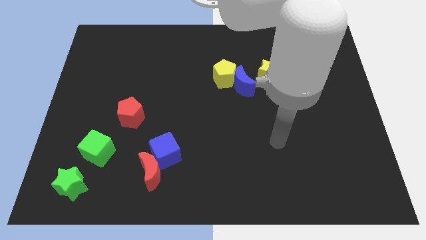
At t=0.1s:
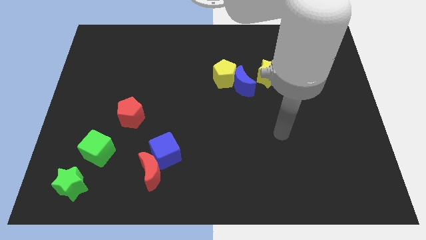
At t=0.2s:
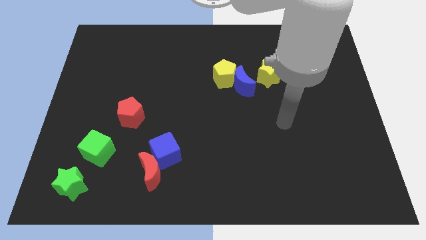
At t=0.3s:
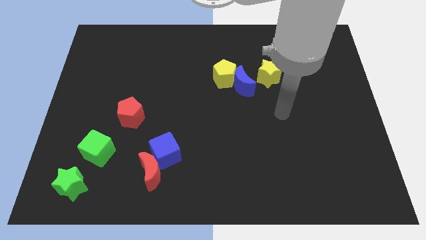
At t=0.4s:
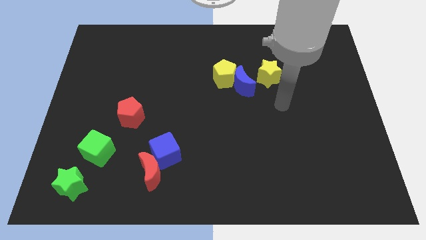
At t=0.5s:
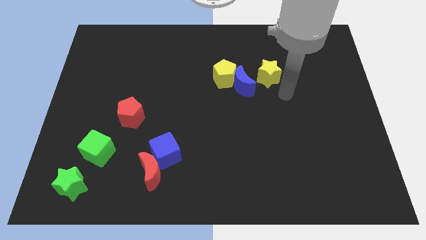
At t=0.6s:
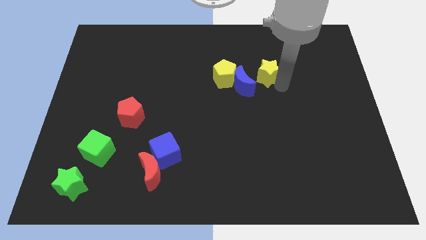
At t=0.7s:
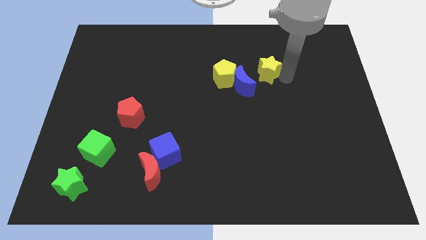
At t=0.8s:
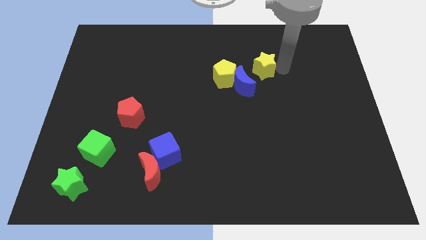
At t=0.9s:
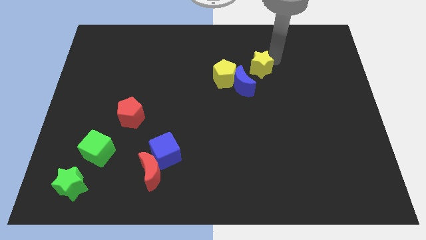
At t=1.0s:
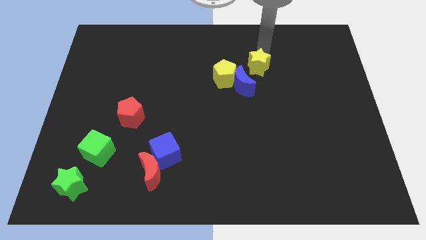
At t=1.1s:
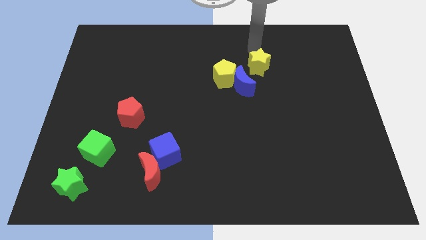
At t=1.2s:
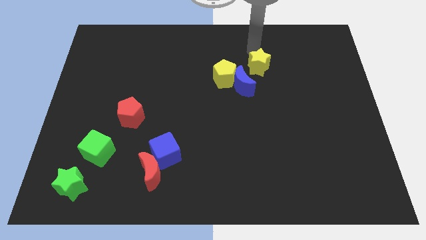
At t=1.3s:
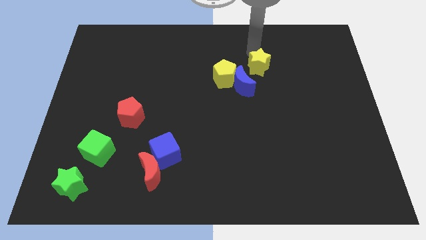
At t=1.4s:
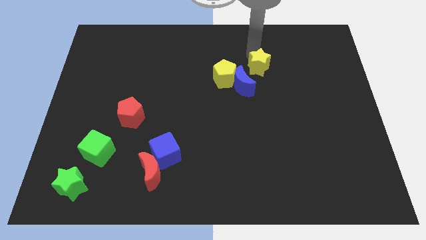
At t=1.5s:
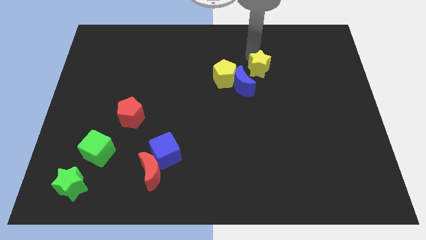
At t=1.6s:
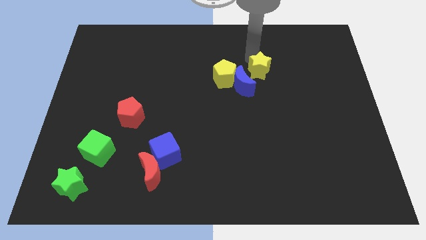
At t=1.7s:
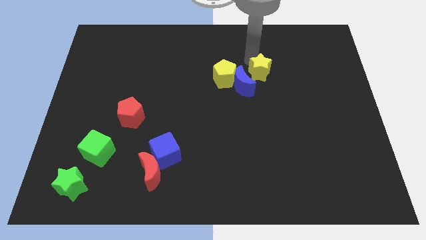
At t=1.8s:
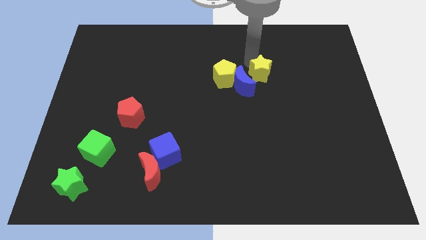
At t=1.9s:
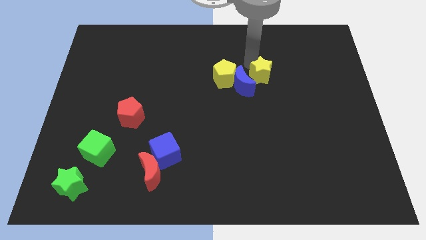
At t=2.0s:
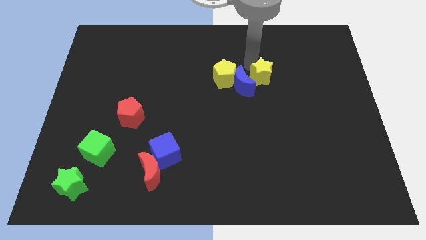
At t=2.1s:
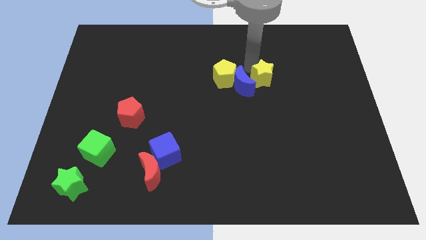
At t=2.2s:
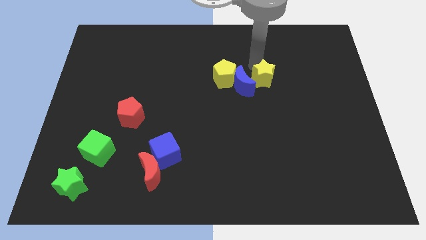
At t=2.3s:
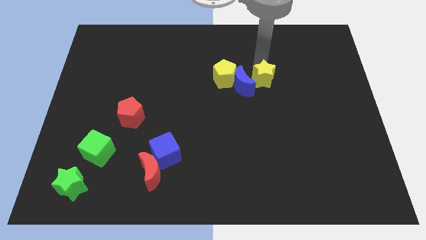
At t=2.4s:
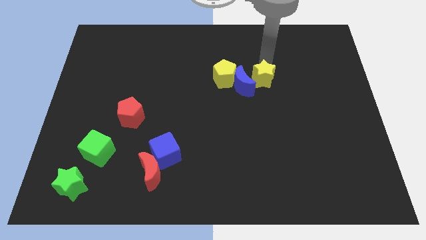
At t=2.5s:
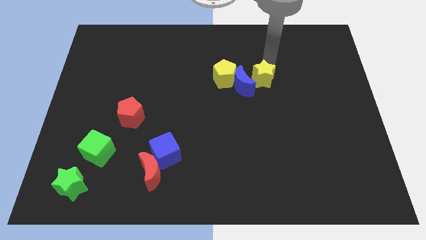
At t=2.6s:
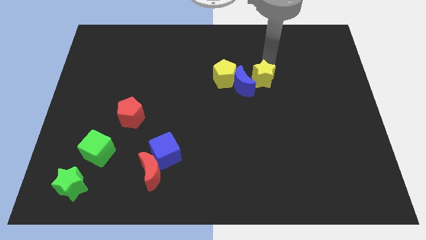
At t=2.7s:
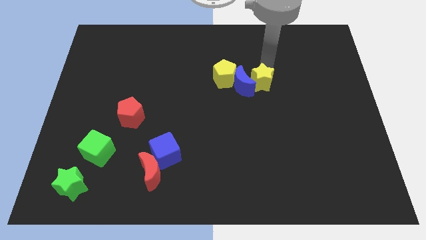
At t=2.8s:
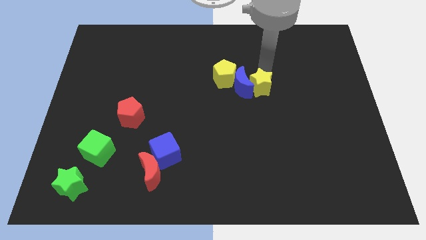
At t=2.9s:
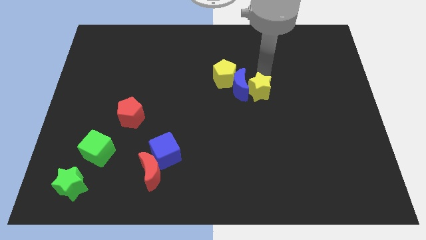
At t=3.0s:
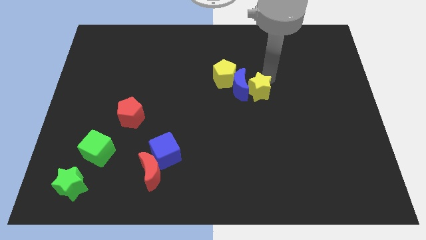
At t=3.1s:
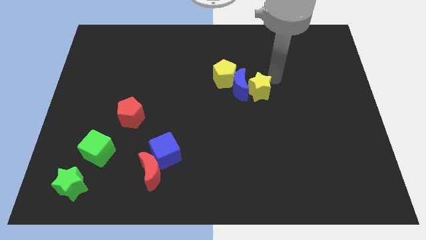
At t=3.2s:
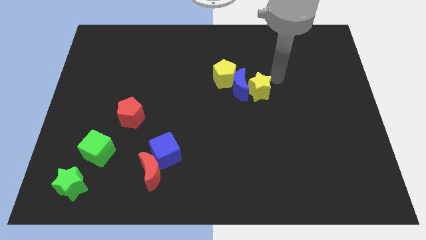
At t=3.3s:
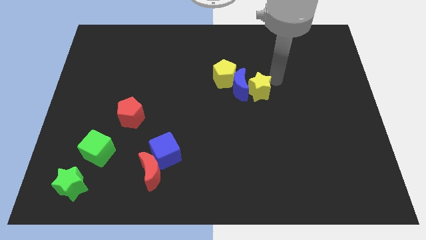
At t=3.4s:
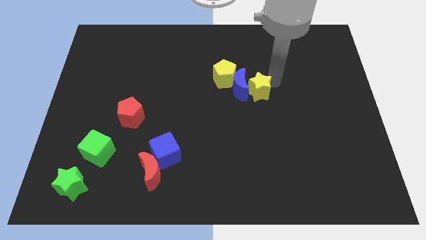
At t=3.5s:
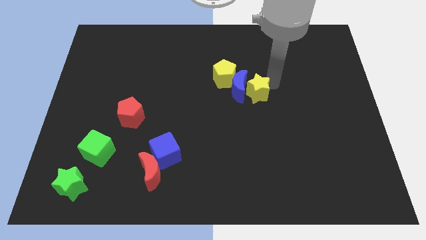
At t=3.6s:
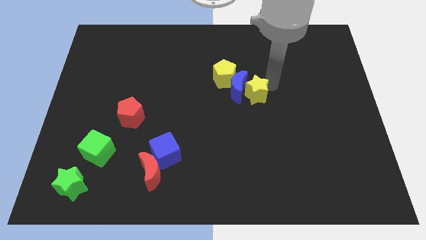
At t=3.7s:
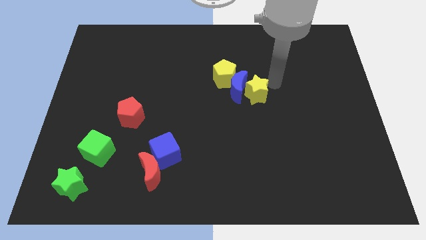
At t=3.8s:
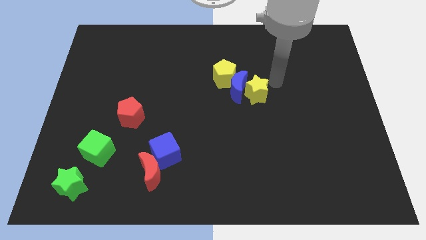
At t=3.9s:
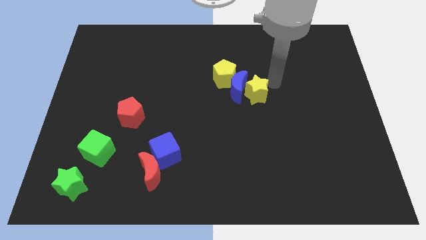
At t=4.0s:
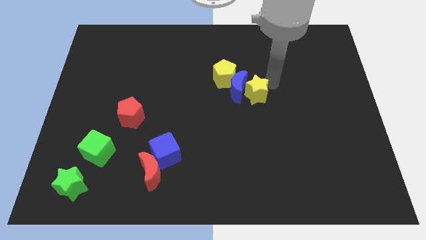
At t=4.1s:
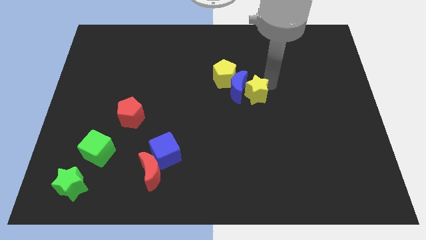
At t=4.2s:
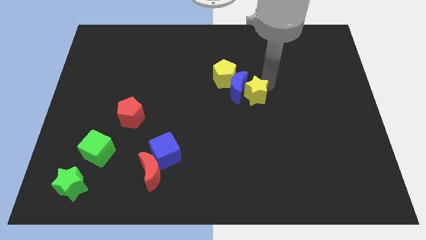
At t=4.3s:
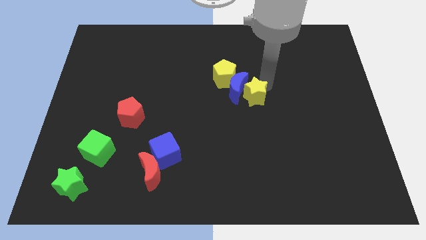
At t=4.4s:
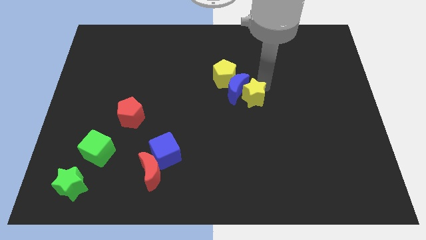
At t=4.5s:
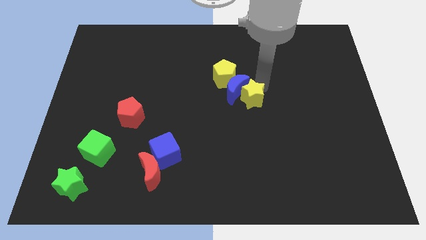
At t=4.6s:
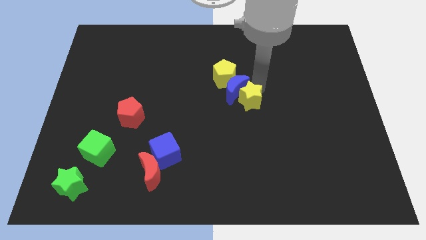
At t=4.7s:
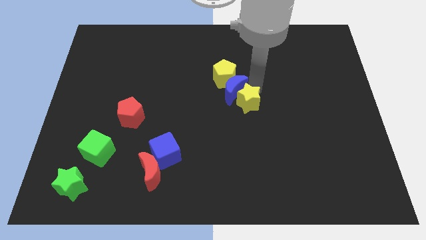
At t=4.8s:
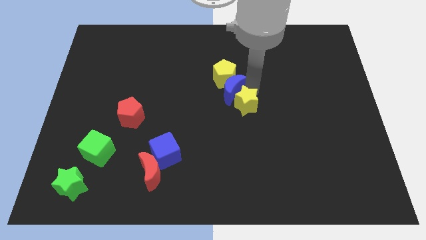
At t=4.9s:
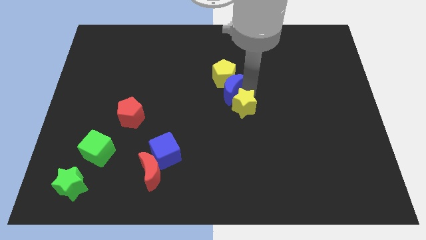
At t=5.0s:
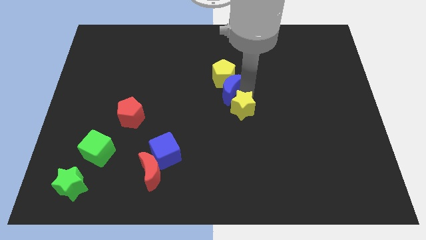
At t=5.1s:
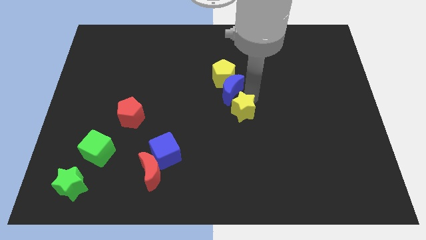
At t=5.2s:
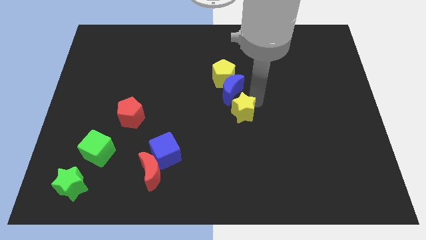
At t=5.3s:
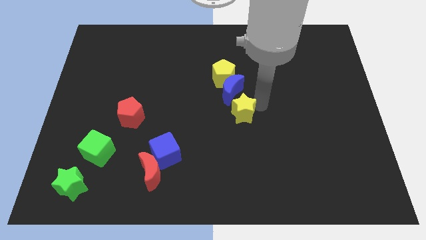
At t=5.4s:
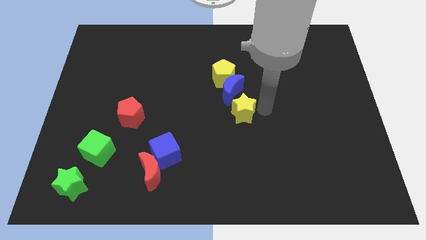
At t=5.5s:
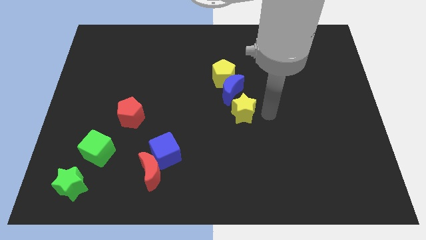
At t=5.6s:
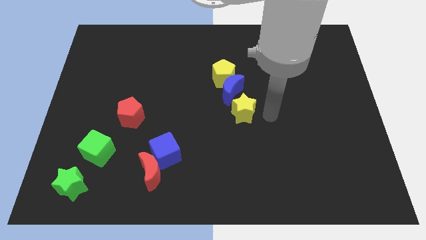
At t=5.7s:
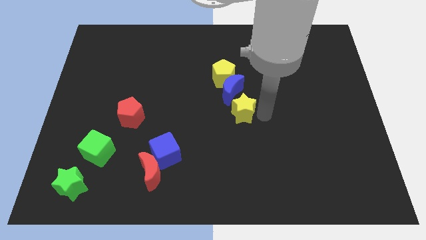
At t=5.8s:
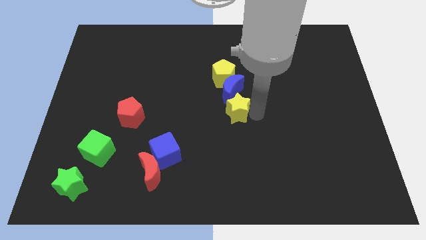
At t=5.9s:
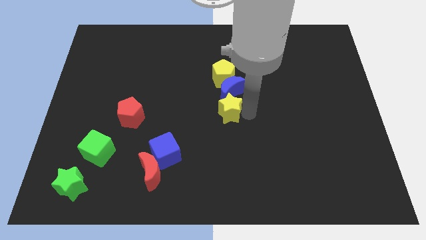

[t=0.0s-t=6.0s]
push the yellow star to the bottom left side of the blue moon
